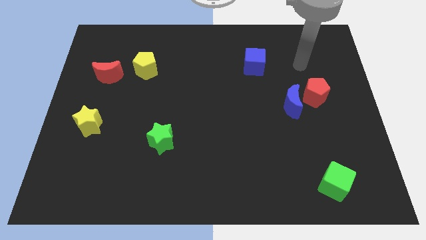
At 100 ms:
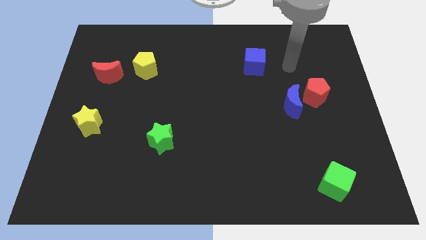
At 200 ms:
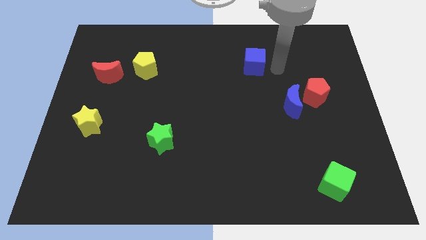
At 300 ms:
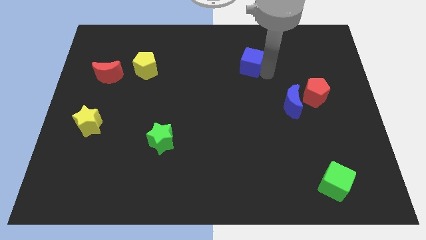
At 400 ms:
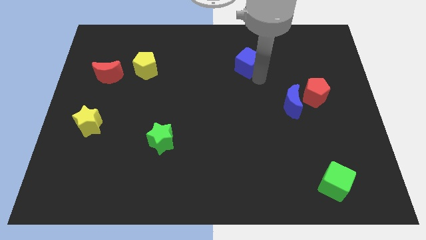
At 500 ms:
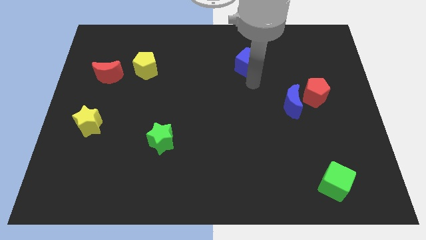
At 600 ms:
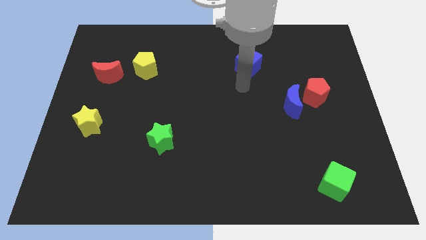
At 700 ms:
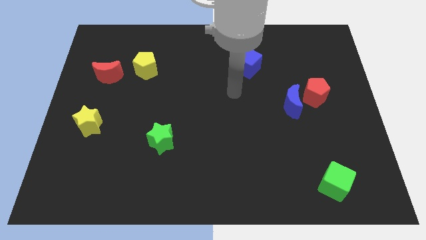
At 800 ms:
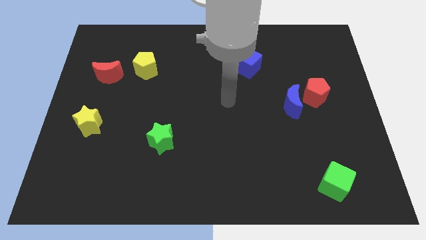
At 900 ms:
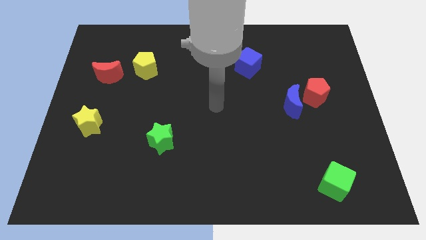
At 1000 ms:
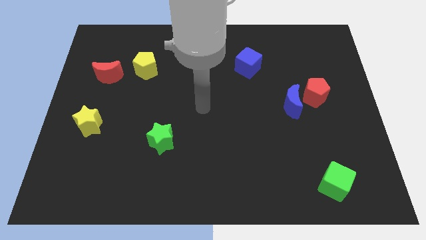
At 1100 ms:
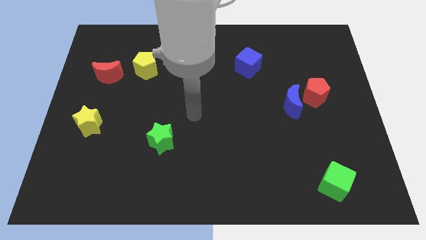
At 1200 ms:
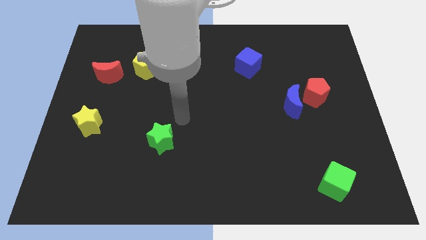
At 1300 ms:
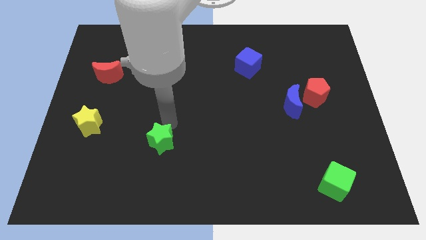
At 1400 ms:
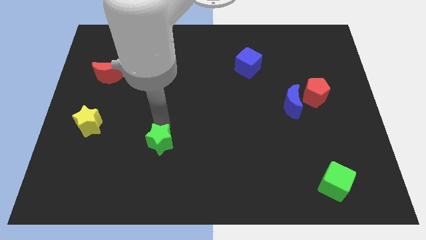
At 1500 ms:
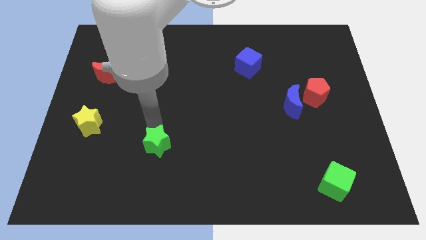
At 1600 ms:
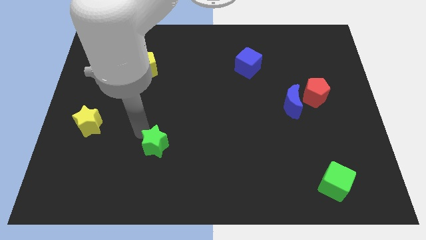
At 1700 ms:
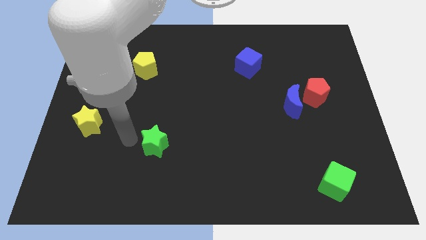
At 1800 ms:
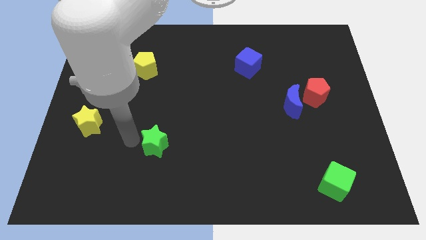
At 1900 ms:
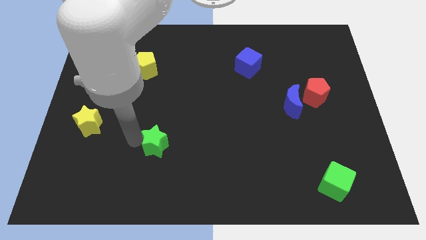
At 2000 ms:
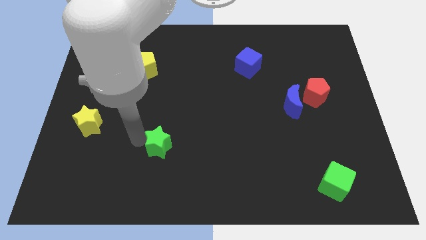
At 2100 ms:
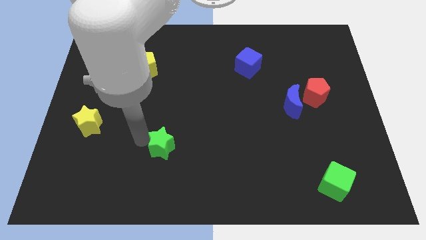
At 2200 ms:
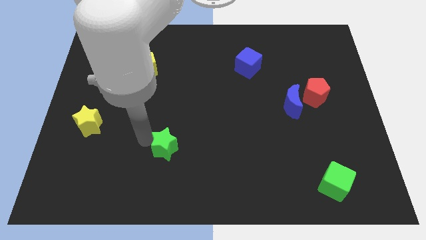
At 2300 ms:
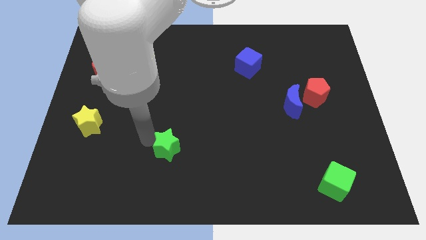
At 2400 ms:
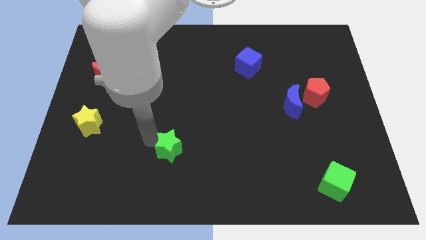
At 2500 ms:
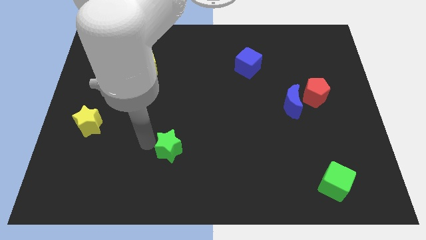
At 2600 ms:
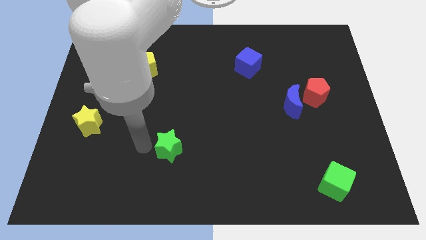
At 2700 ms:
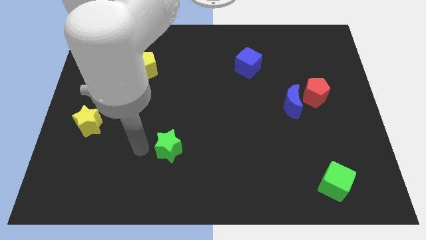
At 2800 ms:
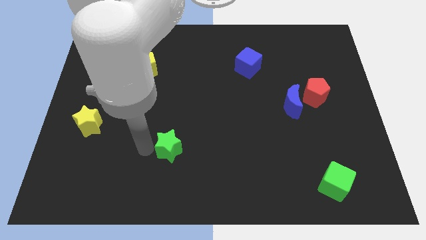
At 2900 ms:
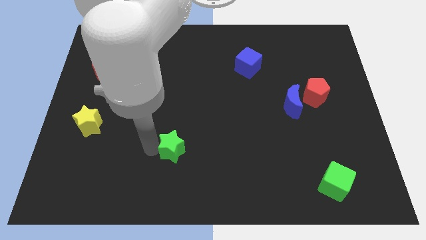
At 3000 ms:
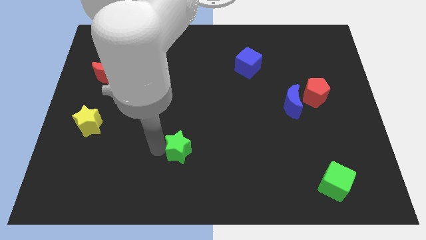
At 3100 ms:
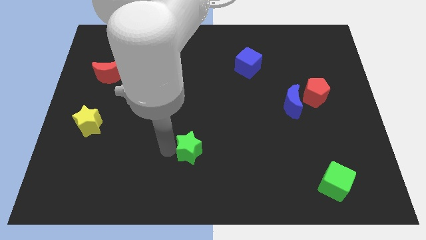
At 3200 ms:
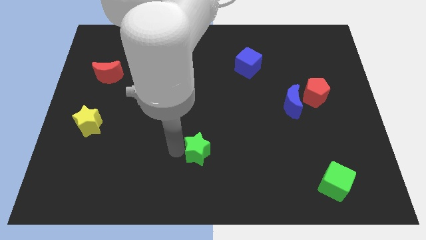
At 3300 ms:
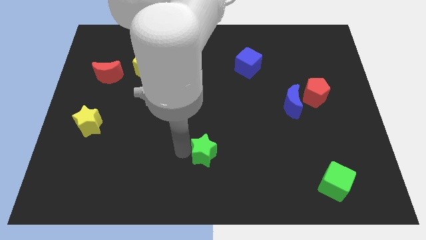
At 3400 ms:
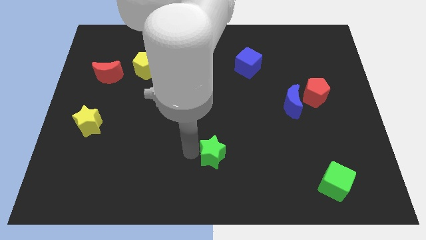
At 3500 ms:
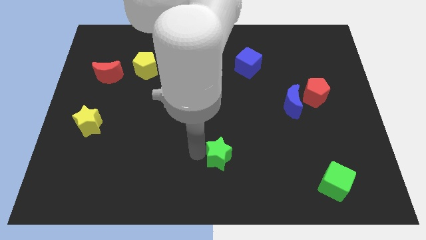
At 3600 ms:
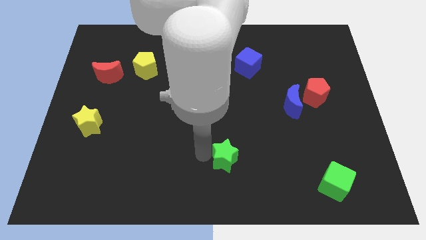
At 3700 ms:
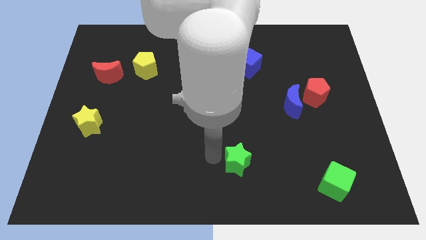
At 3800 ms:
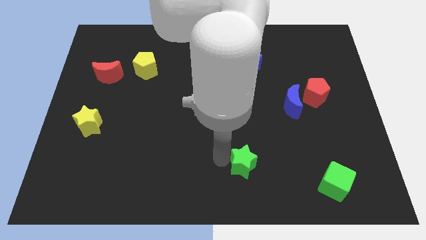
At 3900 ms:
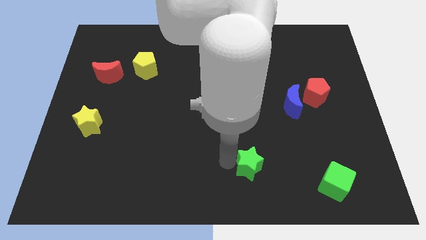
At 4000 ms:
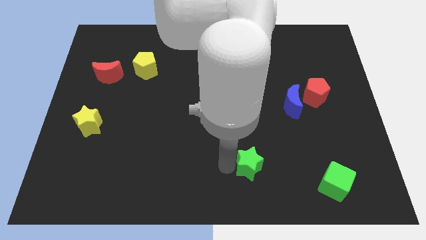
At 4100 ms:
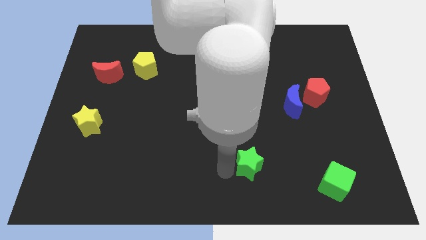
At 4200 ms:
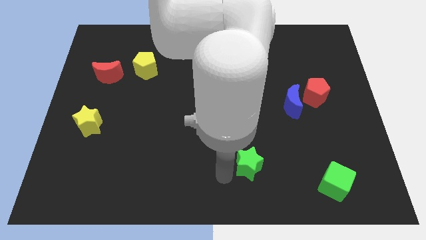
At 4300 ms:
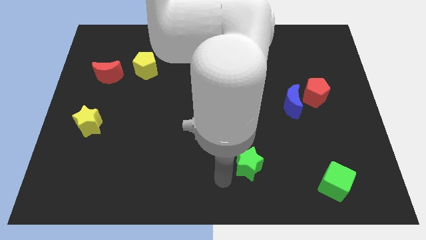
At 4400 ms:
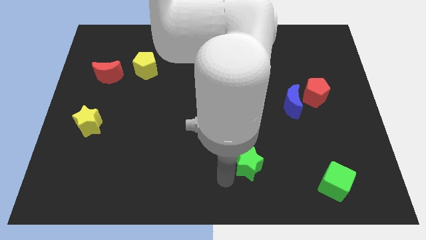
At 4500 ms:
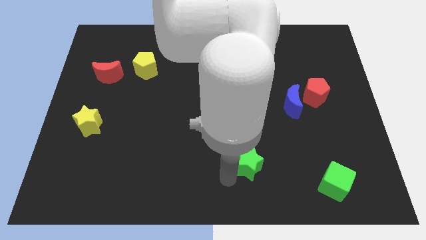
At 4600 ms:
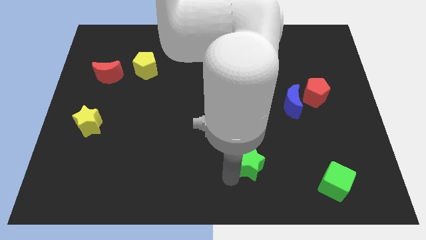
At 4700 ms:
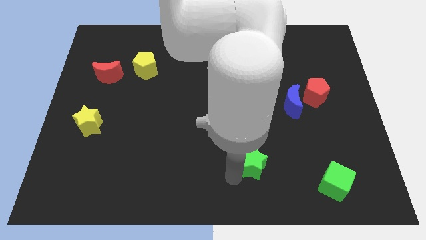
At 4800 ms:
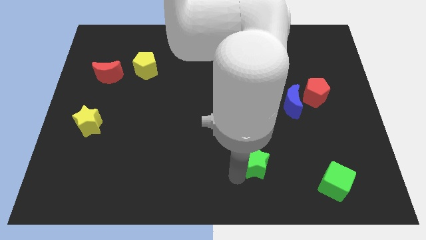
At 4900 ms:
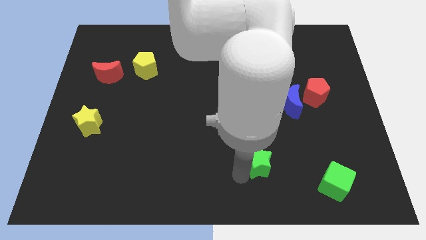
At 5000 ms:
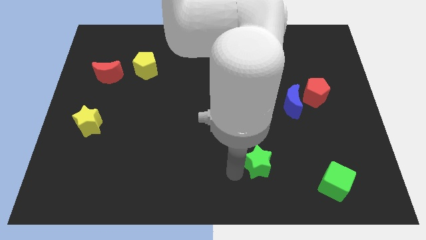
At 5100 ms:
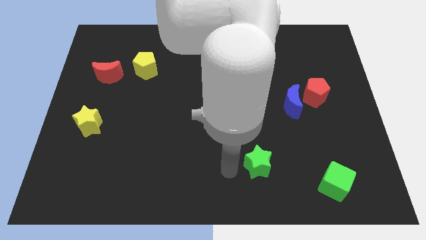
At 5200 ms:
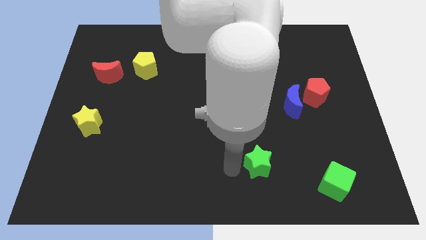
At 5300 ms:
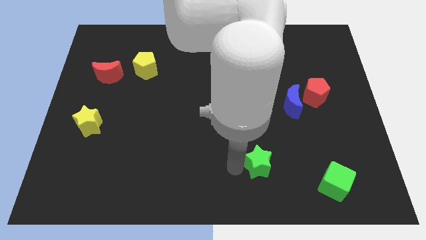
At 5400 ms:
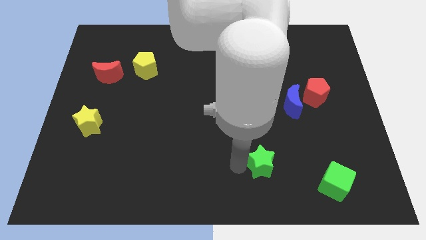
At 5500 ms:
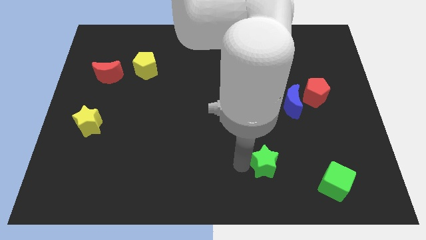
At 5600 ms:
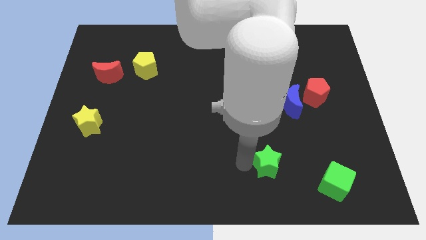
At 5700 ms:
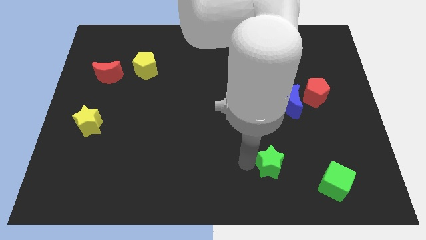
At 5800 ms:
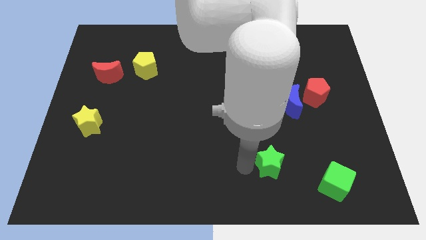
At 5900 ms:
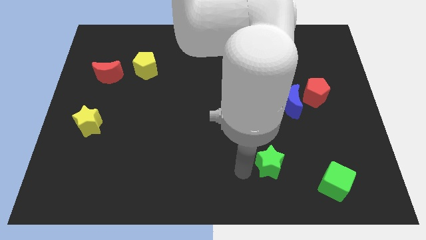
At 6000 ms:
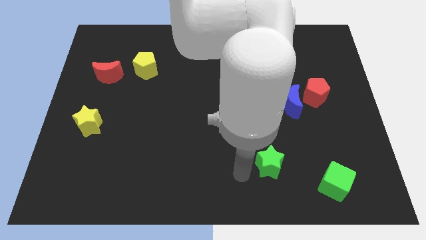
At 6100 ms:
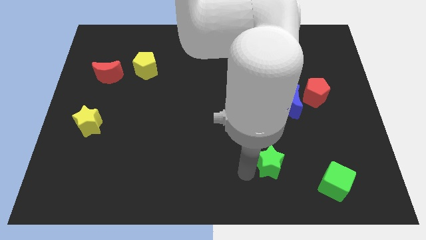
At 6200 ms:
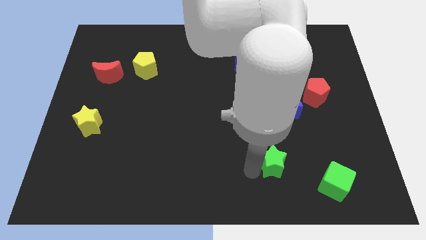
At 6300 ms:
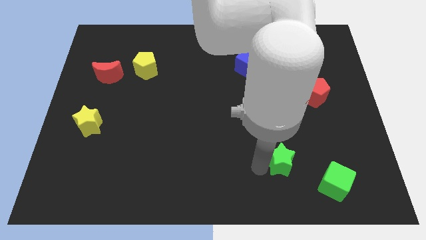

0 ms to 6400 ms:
push the green star to the top left side of the green cube
